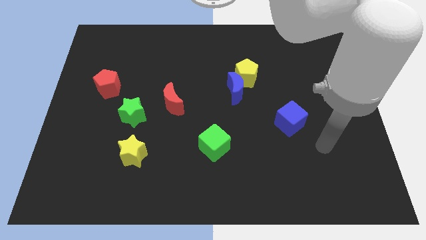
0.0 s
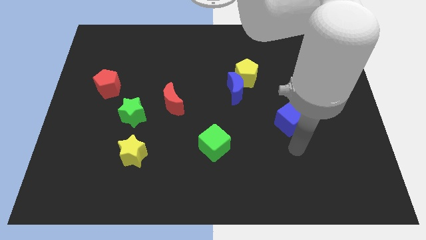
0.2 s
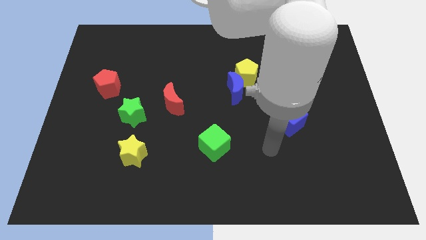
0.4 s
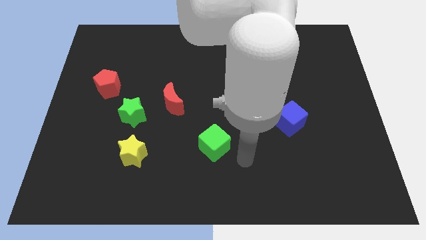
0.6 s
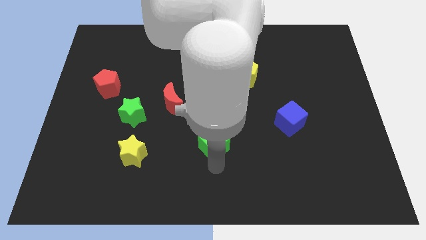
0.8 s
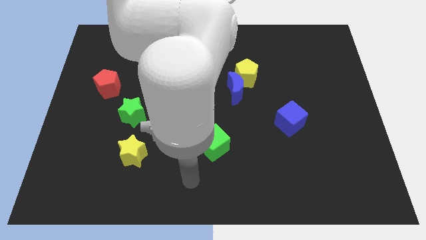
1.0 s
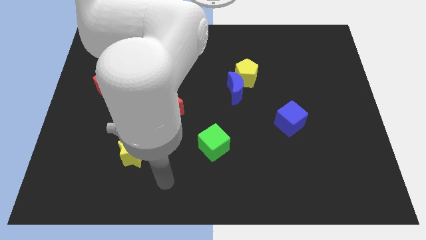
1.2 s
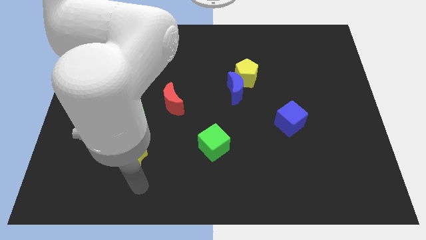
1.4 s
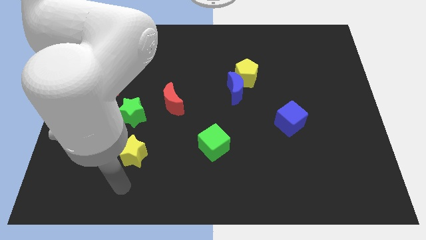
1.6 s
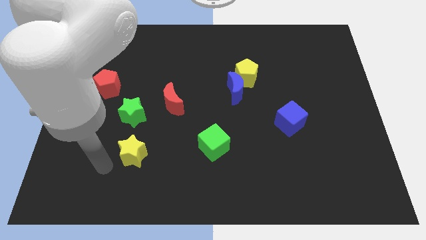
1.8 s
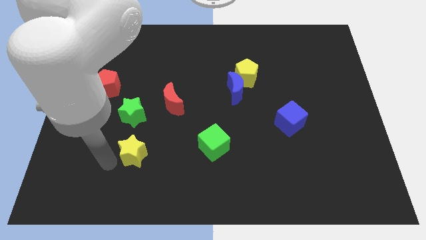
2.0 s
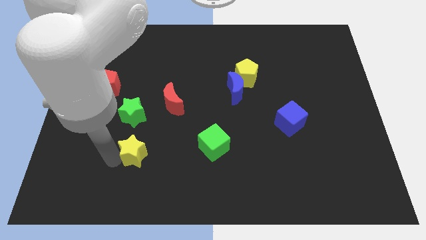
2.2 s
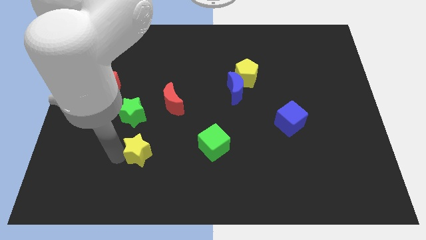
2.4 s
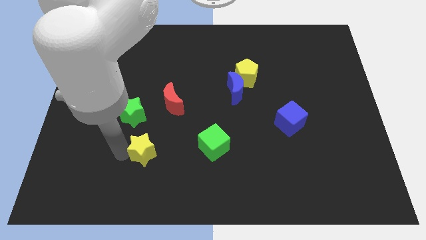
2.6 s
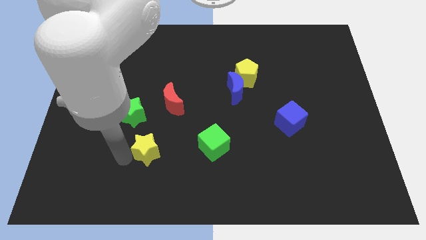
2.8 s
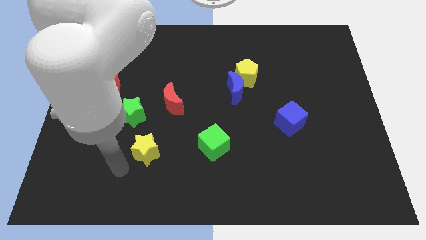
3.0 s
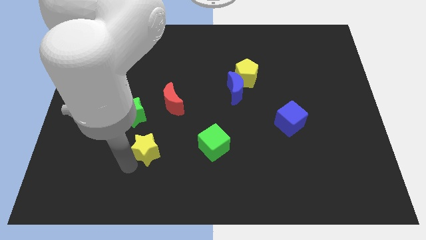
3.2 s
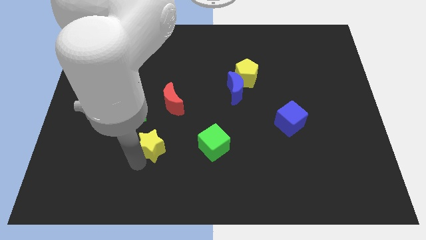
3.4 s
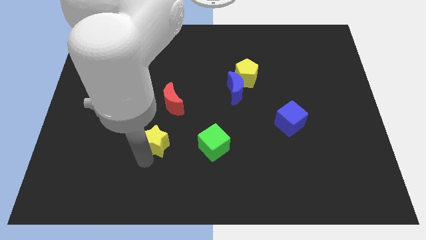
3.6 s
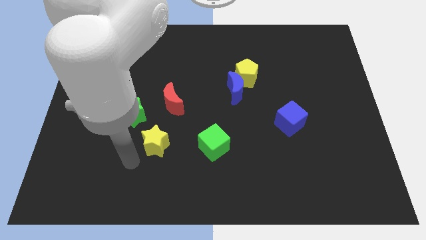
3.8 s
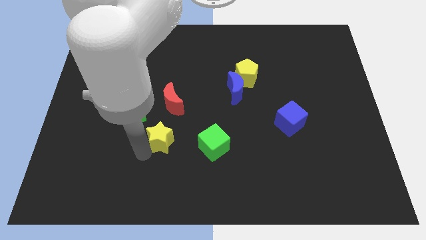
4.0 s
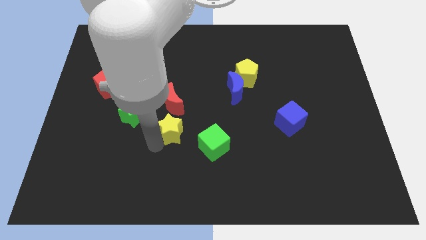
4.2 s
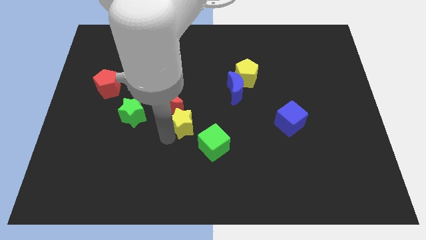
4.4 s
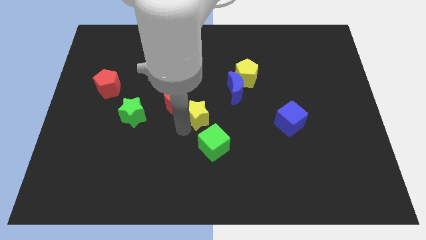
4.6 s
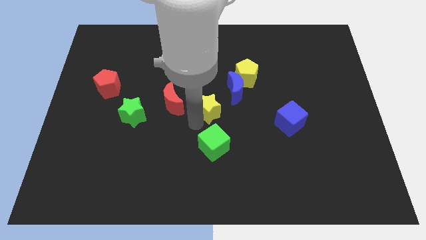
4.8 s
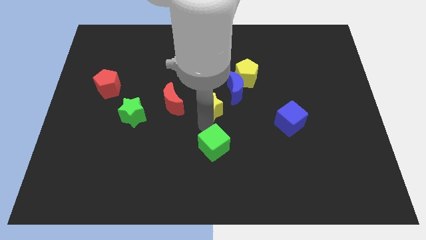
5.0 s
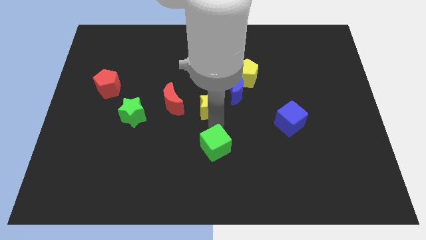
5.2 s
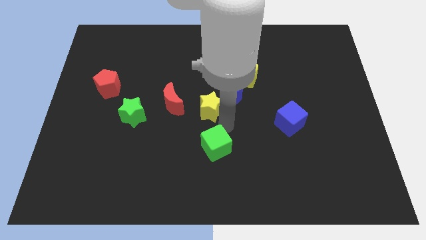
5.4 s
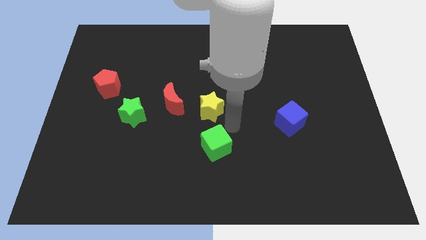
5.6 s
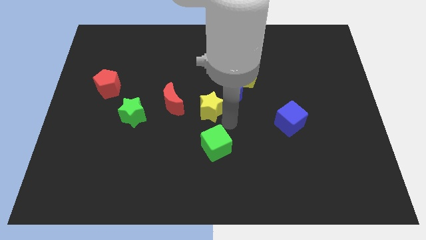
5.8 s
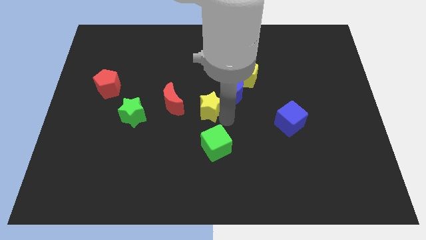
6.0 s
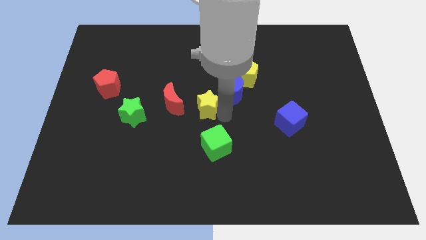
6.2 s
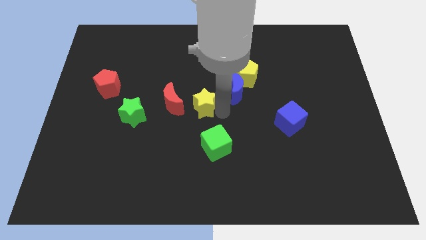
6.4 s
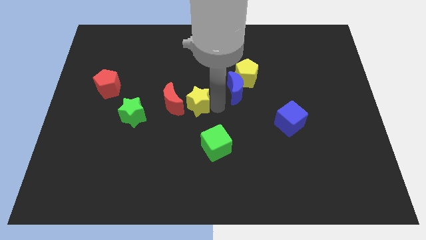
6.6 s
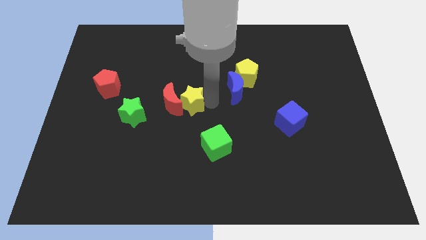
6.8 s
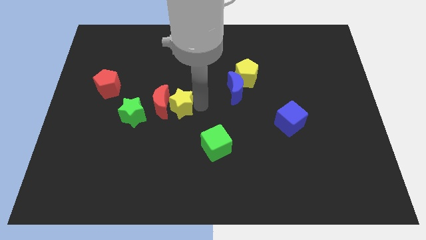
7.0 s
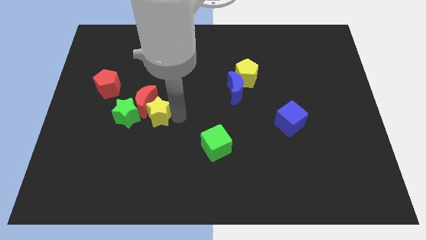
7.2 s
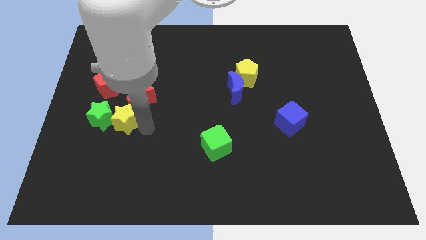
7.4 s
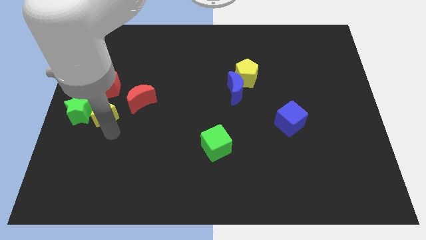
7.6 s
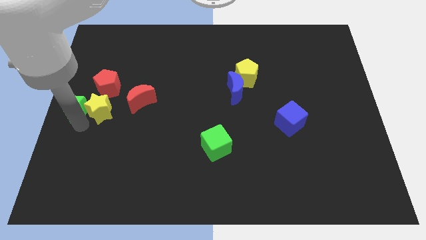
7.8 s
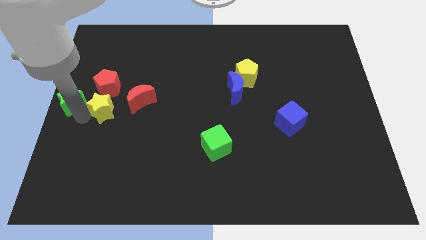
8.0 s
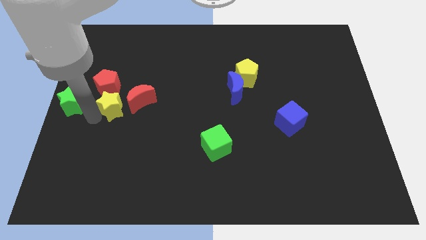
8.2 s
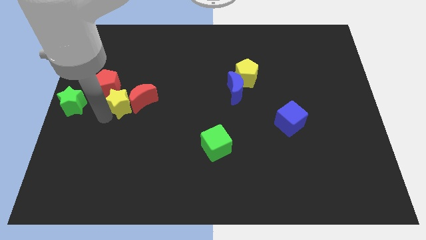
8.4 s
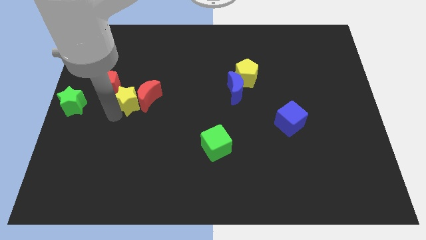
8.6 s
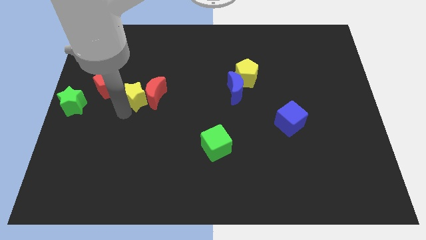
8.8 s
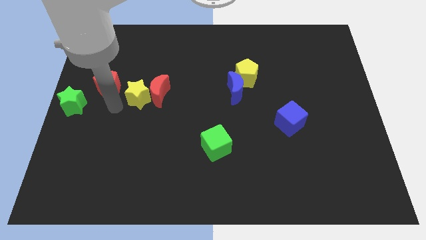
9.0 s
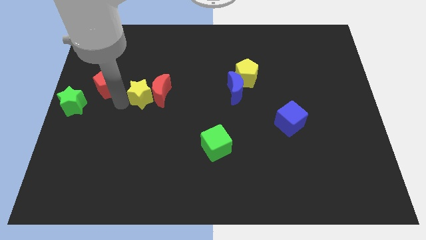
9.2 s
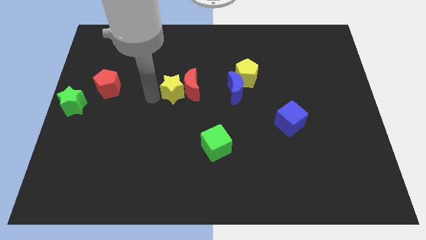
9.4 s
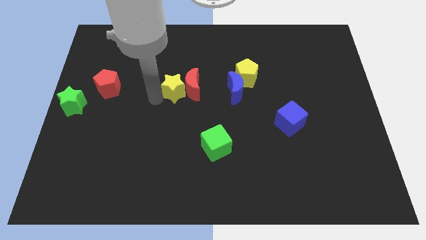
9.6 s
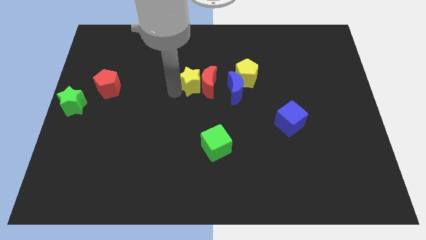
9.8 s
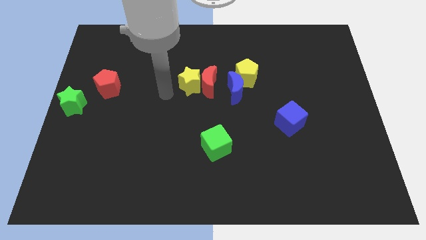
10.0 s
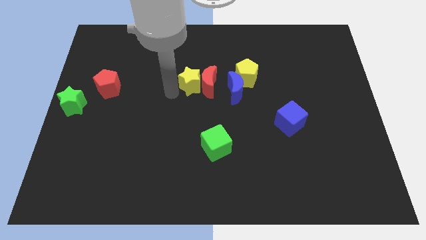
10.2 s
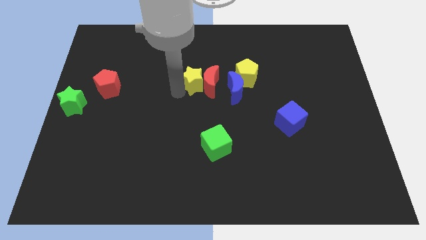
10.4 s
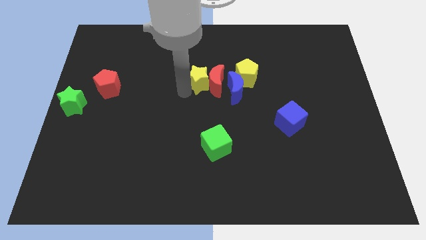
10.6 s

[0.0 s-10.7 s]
move the yellow star diagonally up and to the left of the blue moon

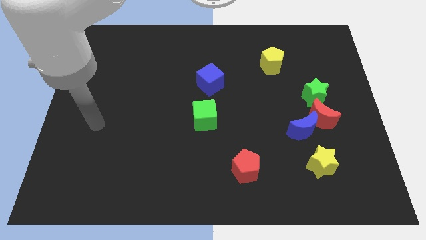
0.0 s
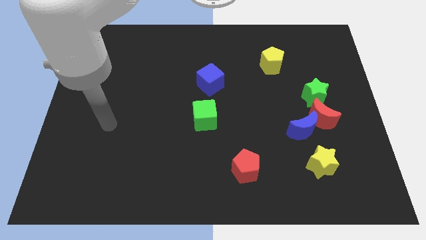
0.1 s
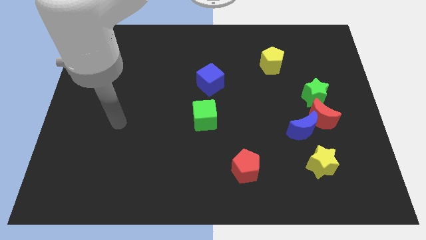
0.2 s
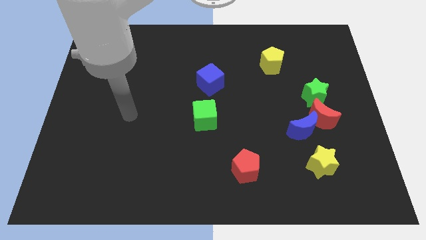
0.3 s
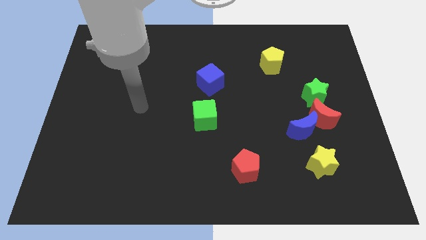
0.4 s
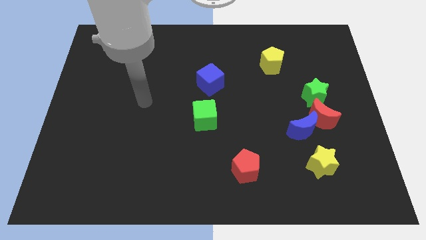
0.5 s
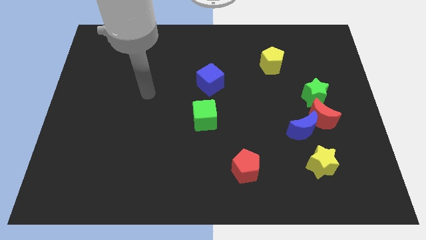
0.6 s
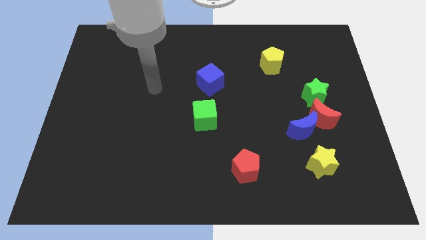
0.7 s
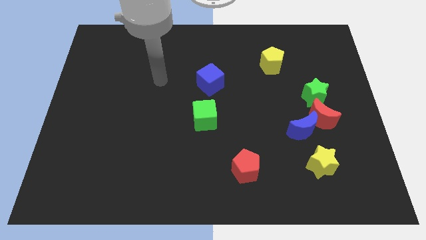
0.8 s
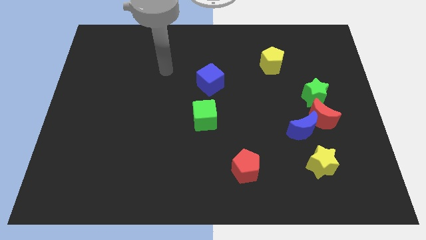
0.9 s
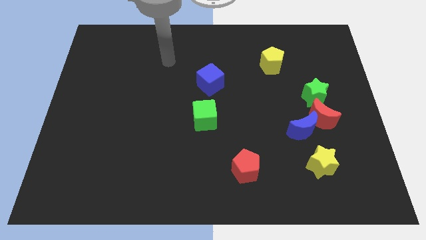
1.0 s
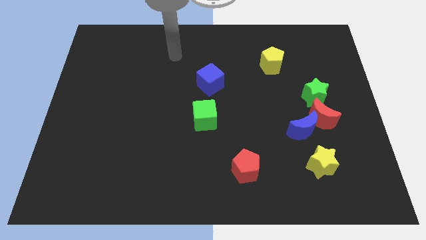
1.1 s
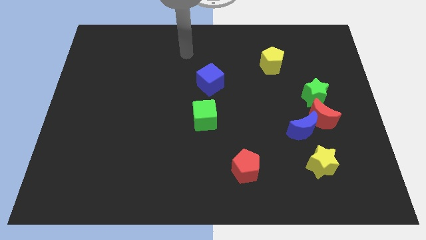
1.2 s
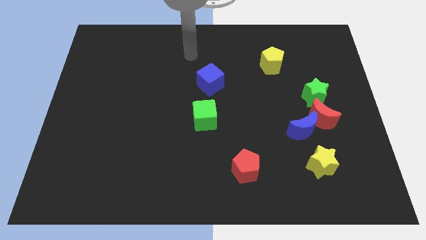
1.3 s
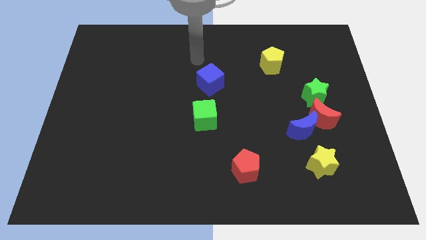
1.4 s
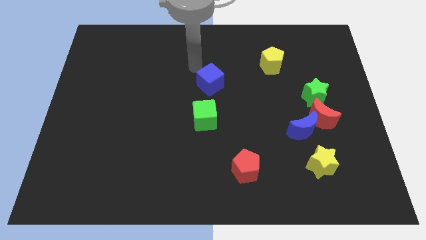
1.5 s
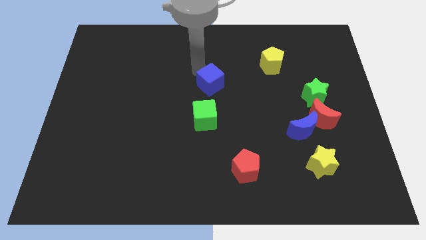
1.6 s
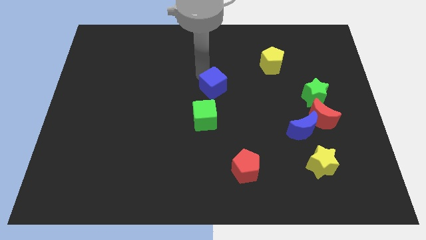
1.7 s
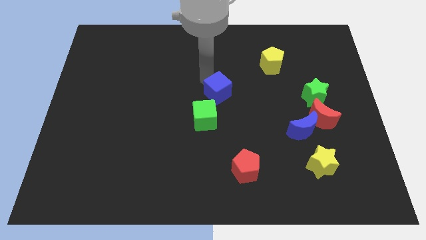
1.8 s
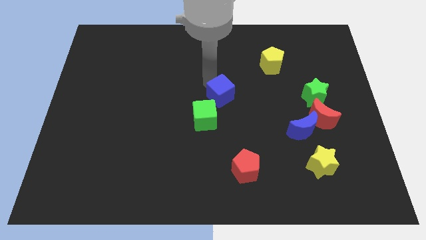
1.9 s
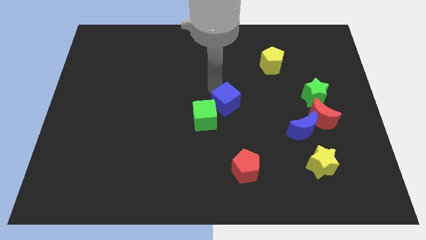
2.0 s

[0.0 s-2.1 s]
slide the blue cube right of the green cube
